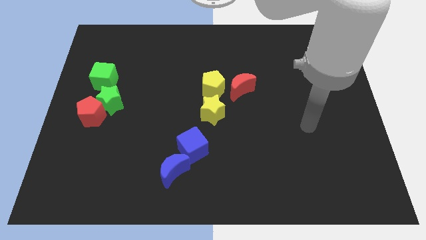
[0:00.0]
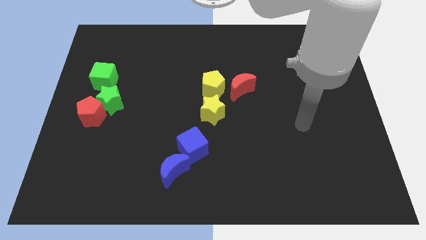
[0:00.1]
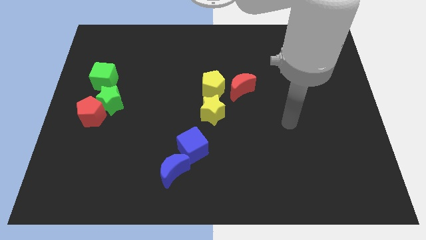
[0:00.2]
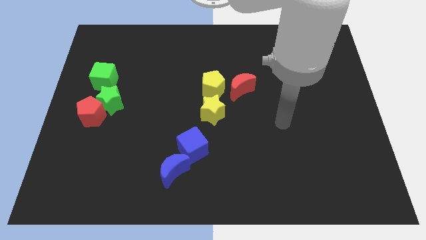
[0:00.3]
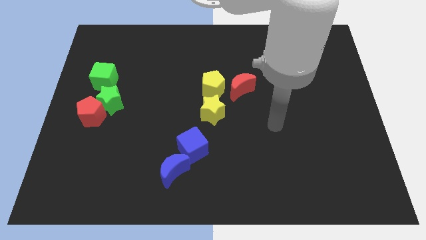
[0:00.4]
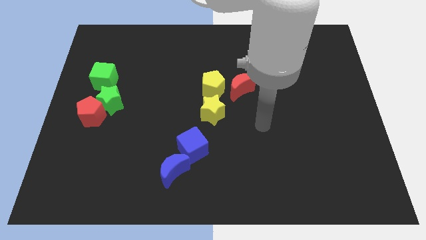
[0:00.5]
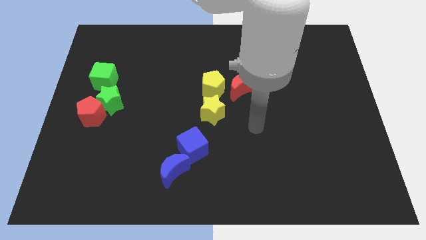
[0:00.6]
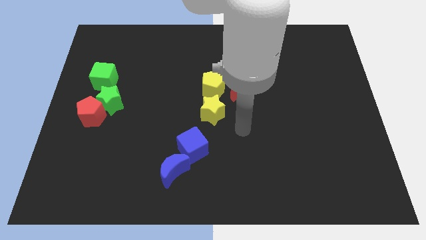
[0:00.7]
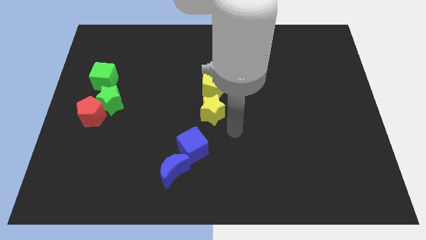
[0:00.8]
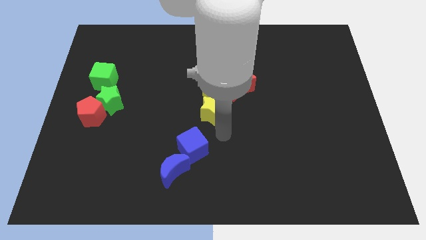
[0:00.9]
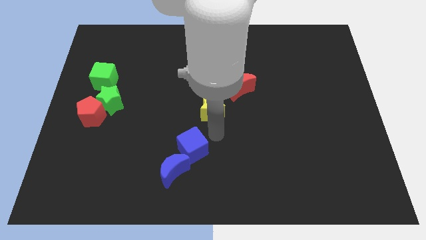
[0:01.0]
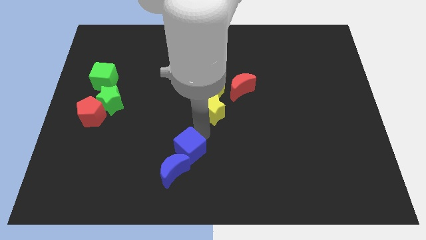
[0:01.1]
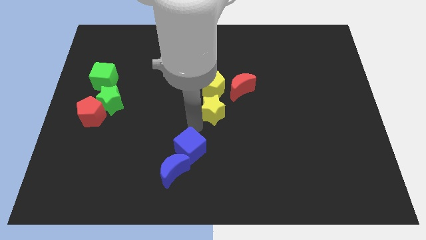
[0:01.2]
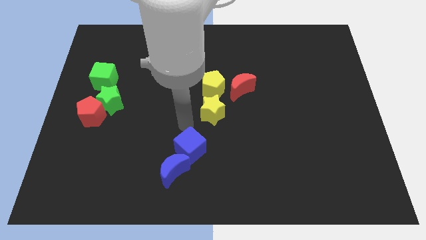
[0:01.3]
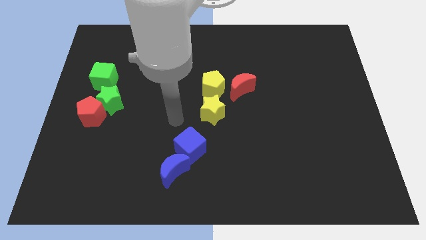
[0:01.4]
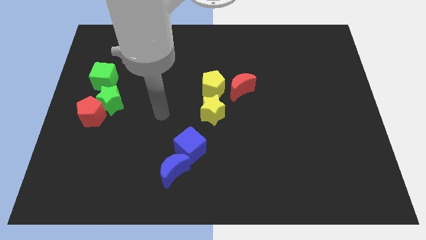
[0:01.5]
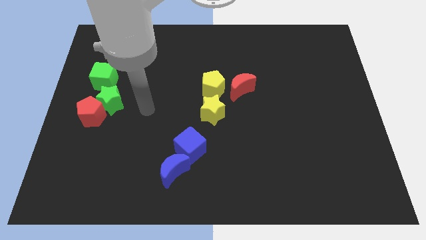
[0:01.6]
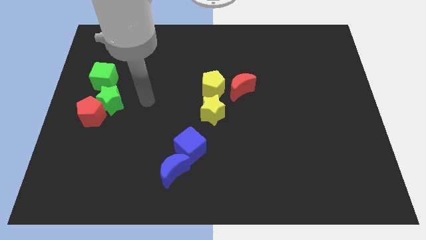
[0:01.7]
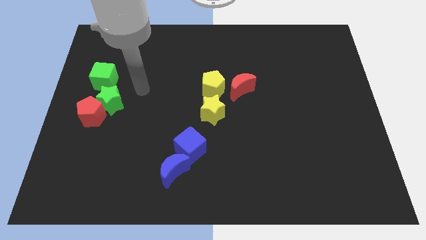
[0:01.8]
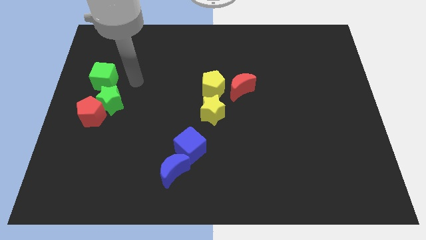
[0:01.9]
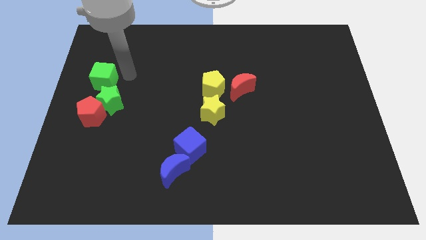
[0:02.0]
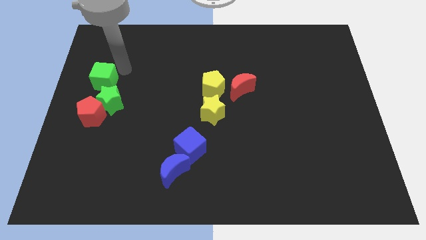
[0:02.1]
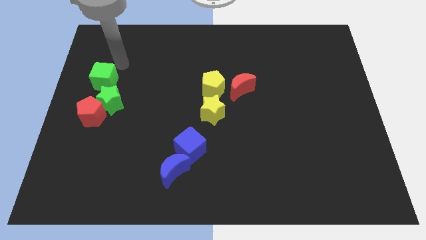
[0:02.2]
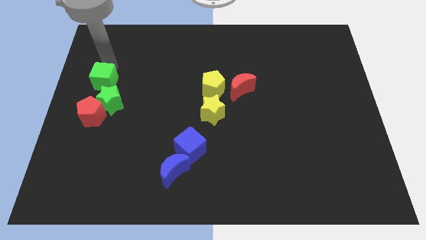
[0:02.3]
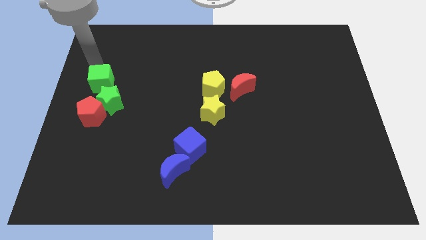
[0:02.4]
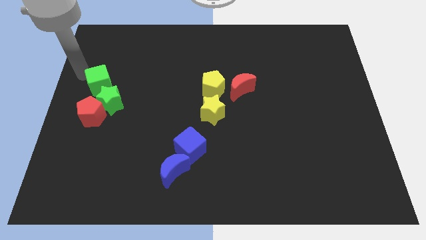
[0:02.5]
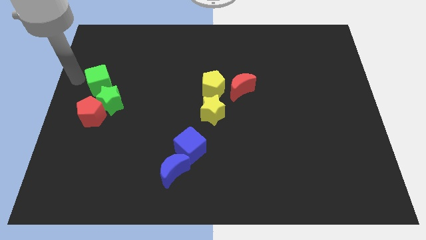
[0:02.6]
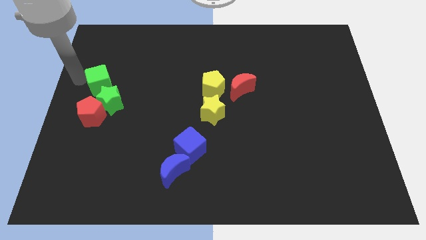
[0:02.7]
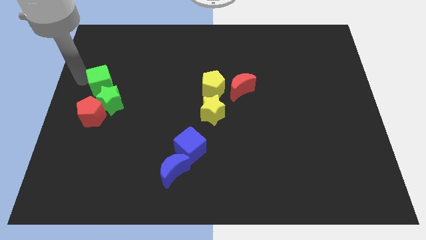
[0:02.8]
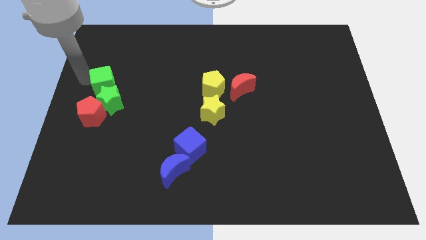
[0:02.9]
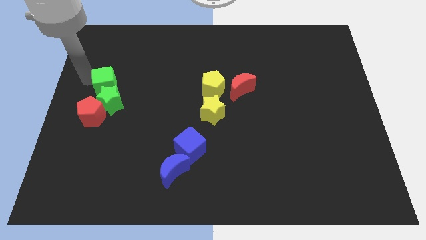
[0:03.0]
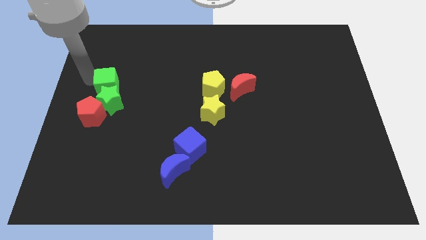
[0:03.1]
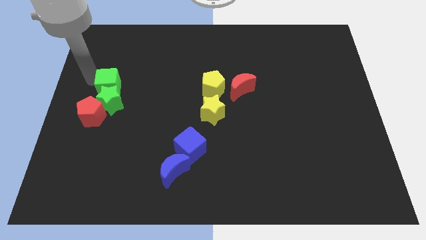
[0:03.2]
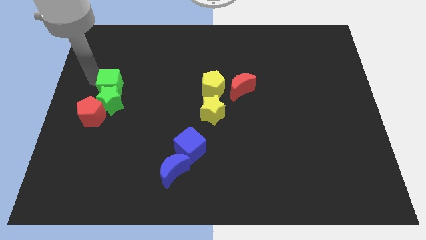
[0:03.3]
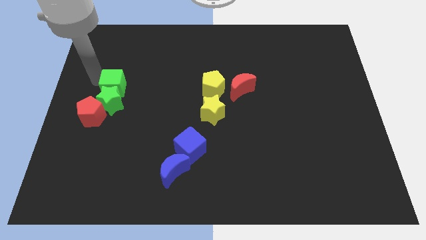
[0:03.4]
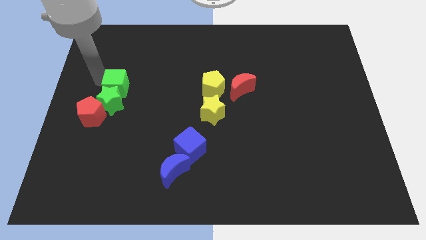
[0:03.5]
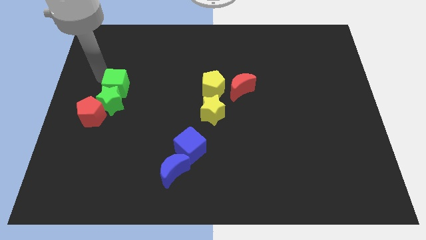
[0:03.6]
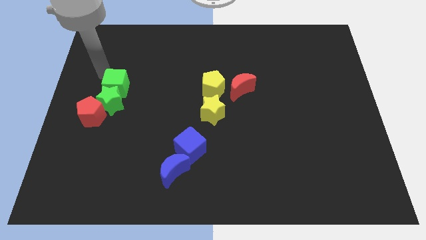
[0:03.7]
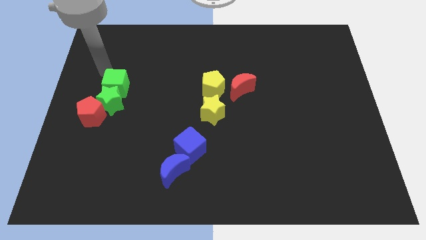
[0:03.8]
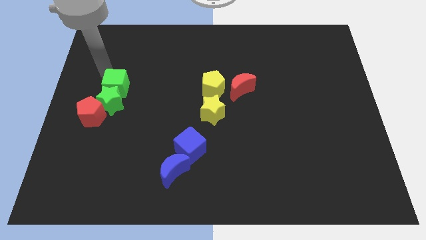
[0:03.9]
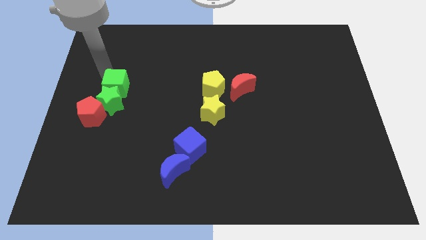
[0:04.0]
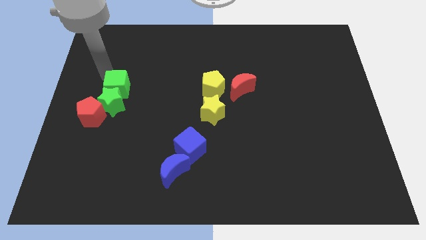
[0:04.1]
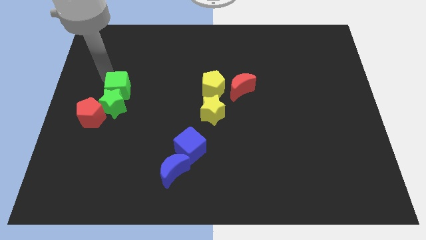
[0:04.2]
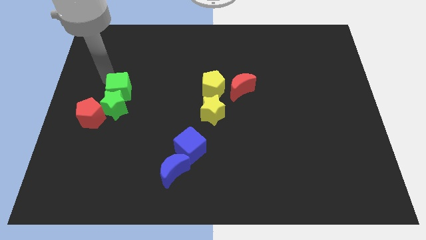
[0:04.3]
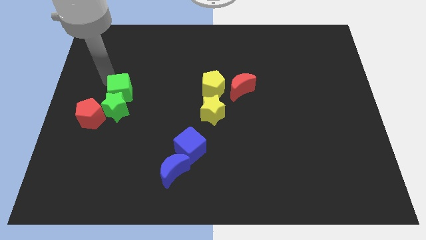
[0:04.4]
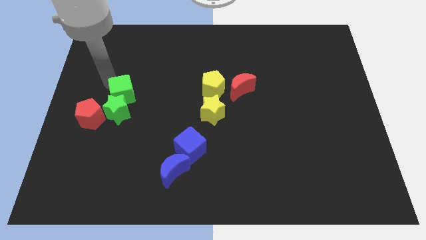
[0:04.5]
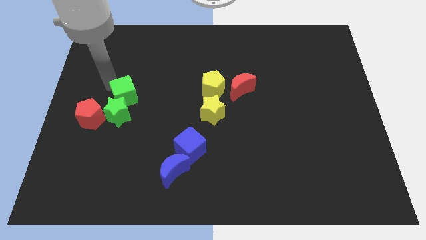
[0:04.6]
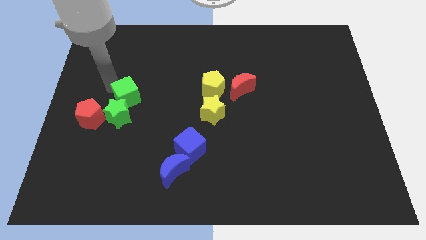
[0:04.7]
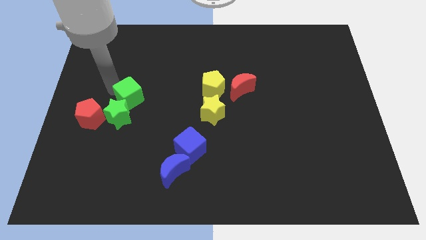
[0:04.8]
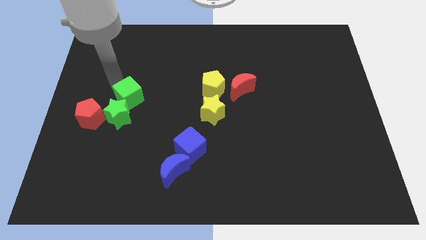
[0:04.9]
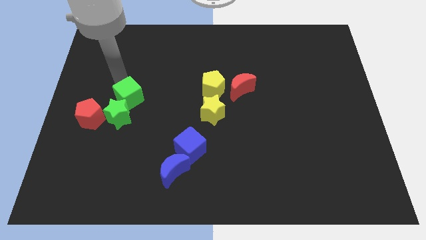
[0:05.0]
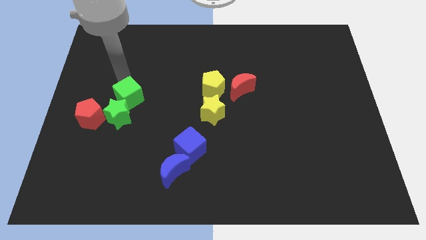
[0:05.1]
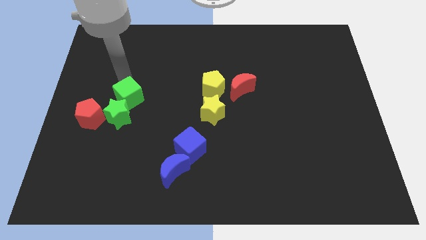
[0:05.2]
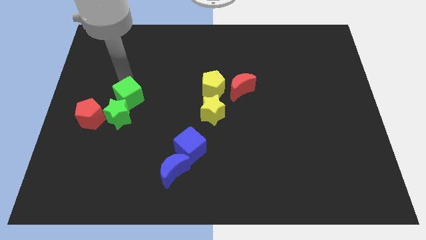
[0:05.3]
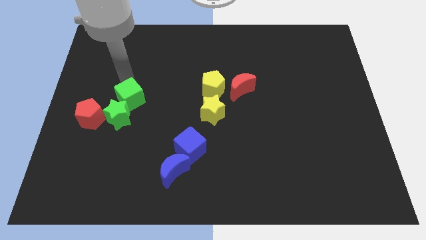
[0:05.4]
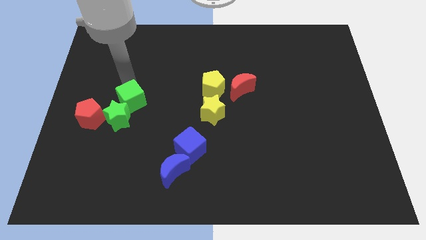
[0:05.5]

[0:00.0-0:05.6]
put the green cube to the right of the red pentagon

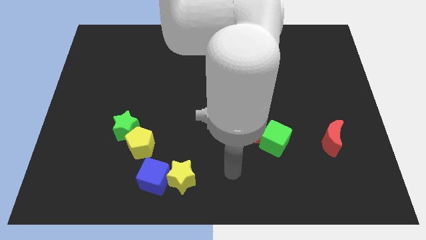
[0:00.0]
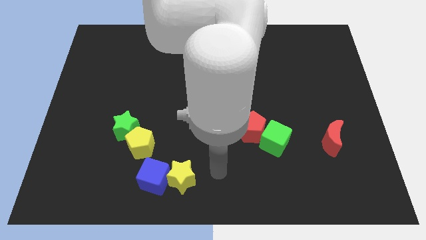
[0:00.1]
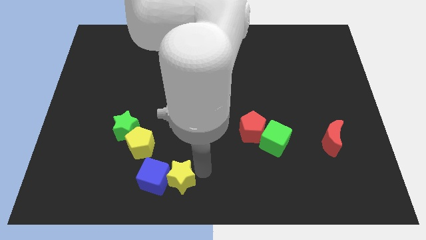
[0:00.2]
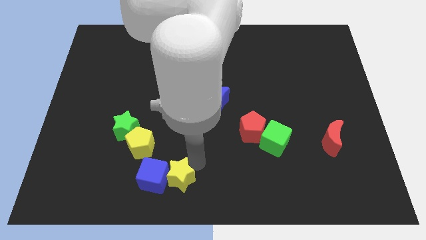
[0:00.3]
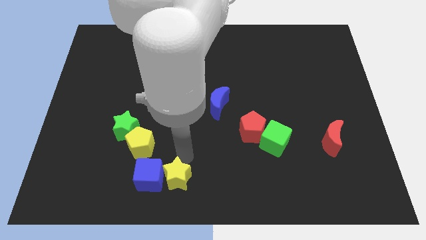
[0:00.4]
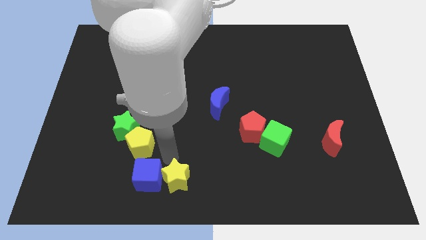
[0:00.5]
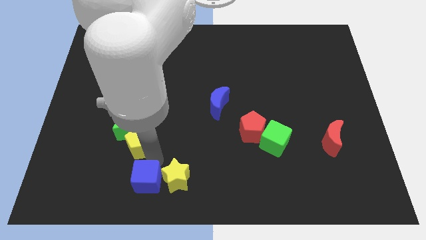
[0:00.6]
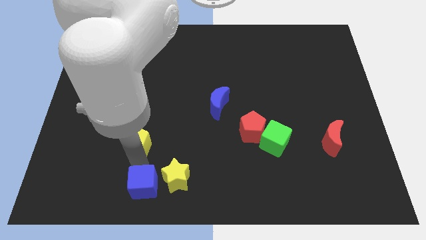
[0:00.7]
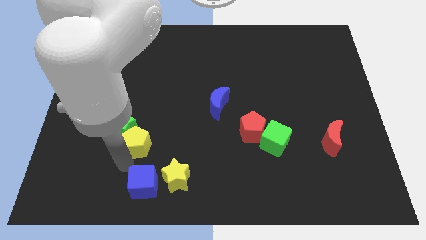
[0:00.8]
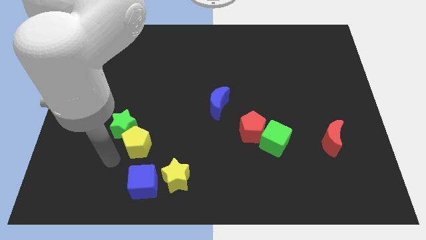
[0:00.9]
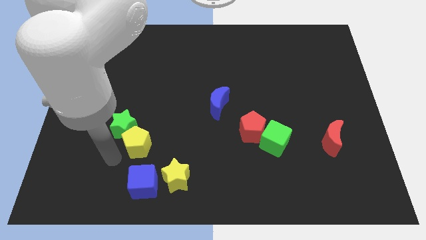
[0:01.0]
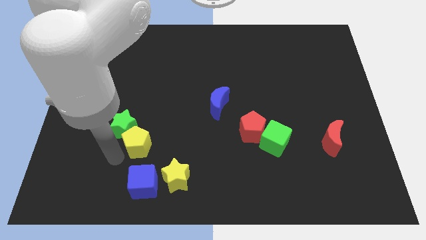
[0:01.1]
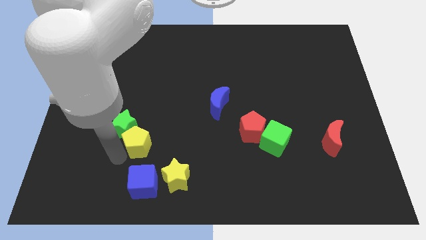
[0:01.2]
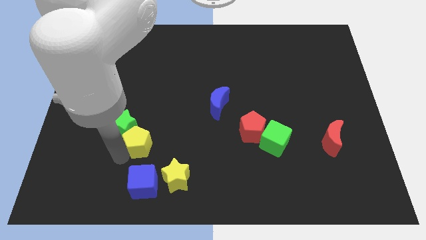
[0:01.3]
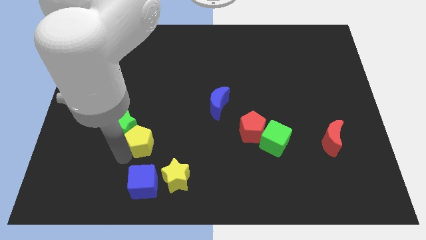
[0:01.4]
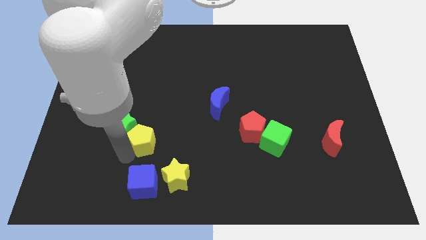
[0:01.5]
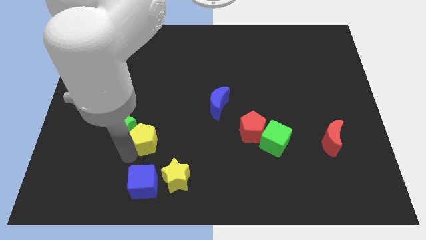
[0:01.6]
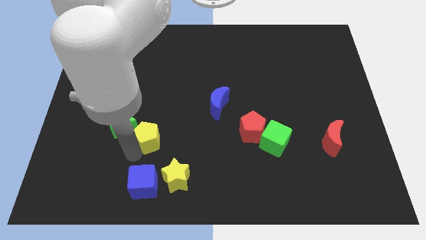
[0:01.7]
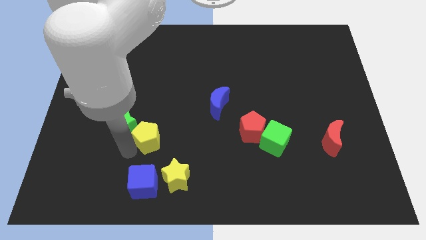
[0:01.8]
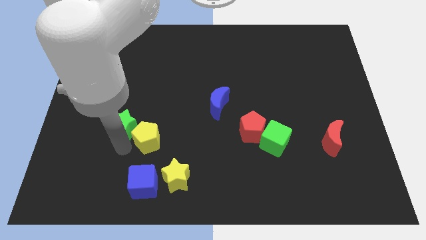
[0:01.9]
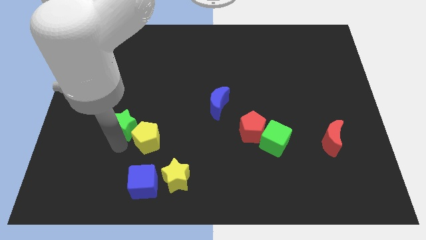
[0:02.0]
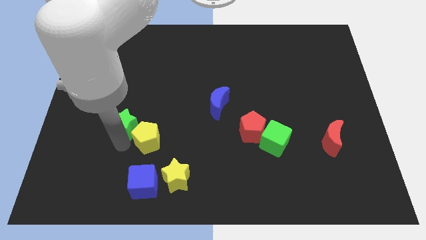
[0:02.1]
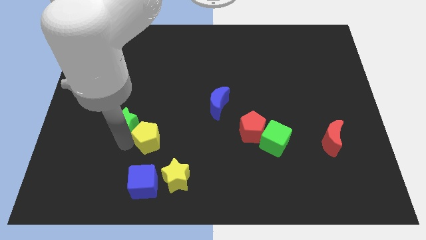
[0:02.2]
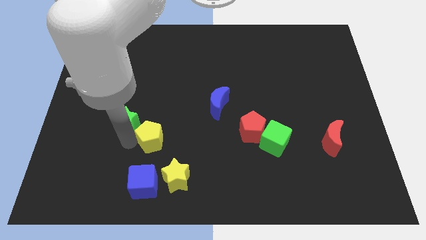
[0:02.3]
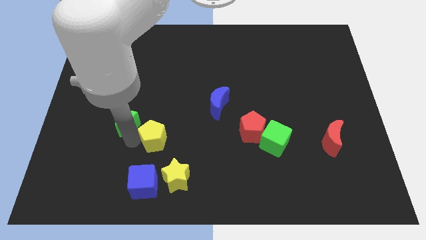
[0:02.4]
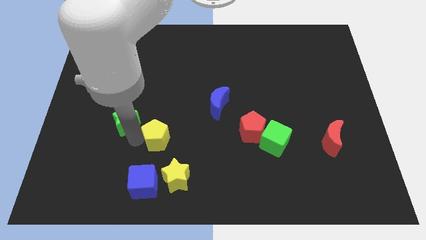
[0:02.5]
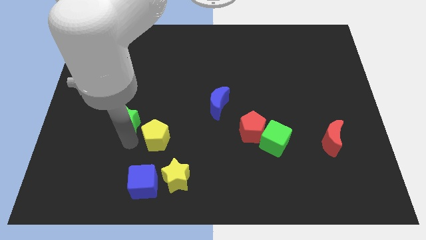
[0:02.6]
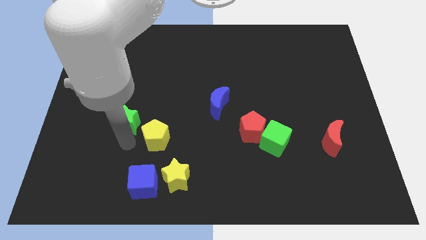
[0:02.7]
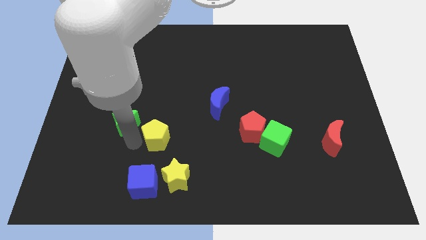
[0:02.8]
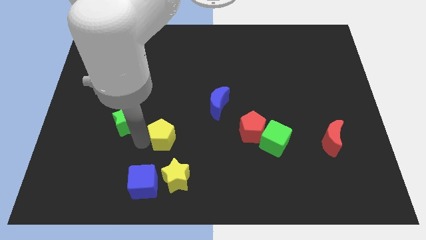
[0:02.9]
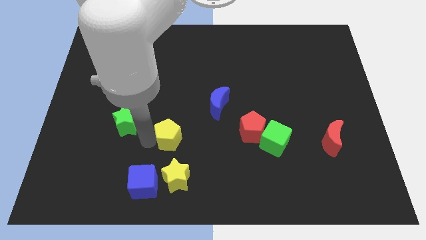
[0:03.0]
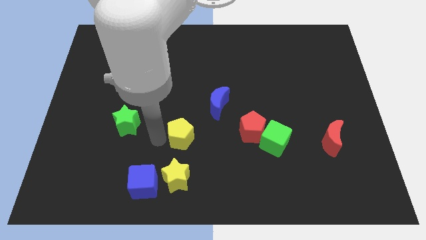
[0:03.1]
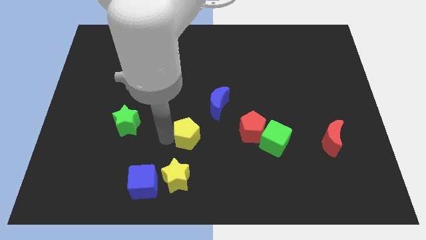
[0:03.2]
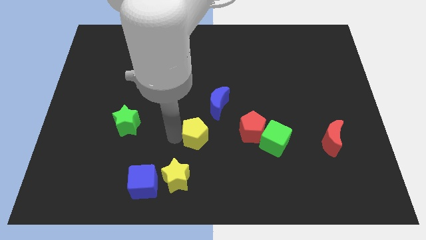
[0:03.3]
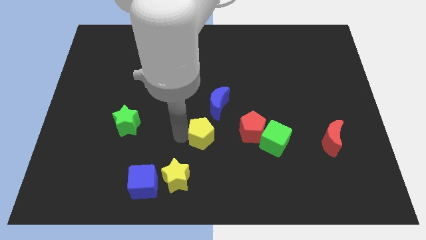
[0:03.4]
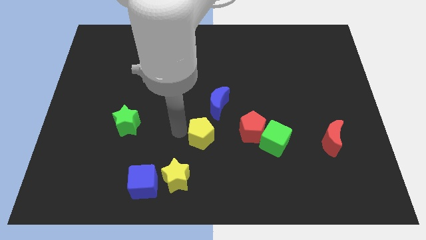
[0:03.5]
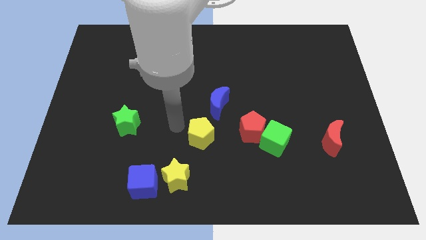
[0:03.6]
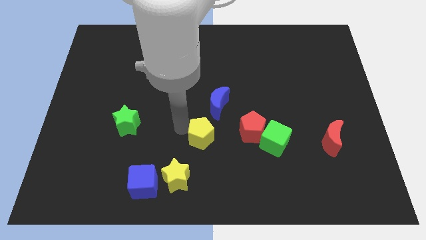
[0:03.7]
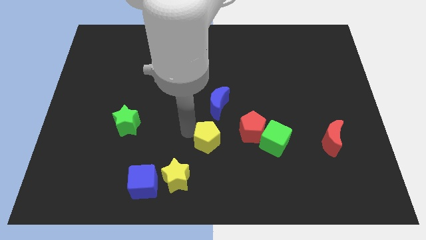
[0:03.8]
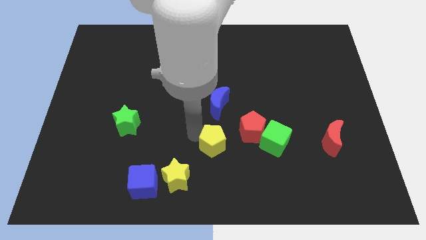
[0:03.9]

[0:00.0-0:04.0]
move the yellow pentagon diagonally down and to the left of the red pentagon
